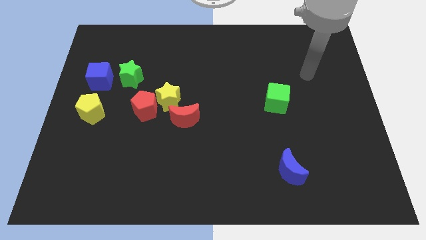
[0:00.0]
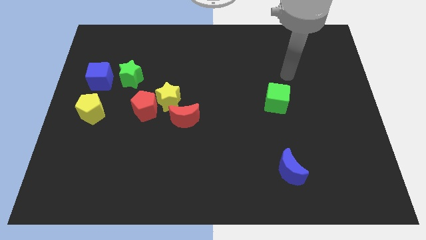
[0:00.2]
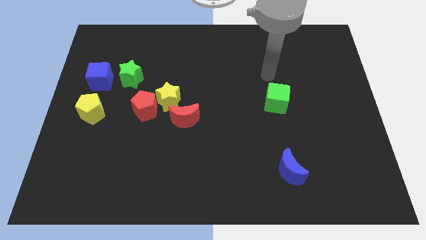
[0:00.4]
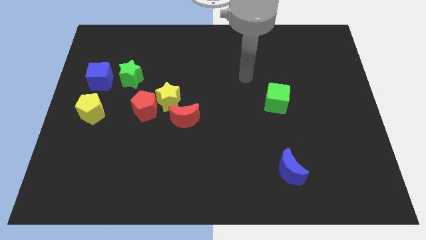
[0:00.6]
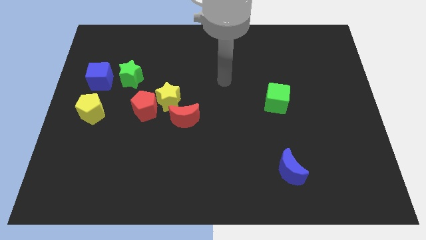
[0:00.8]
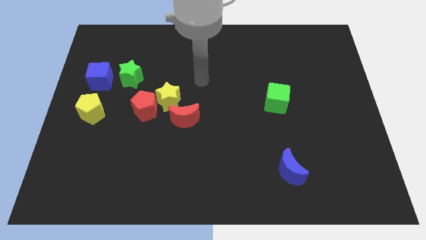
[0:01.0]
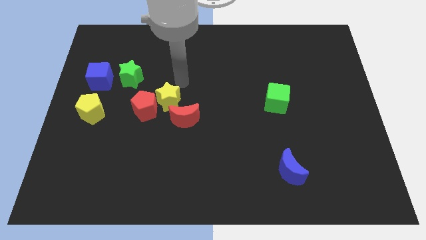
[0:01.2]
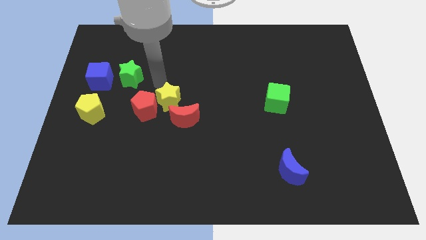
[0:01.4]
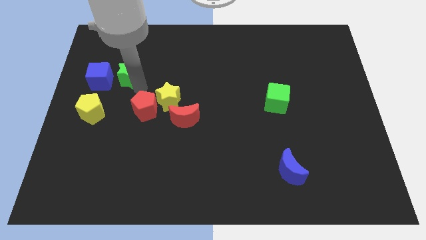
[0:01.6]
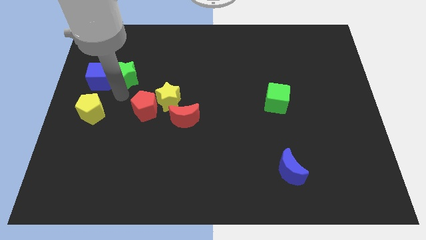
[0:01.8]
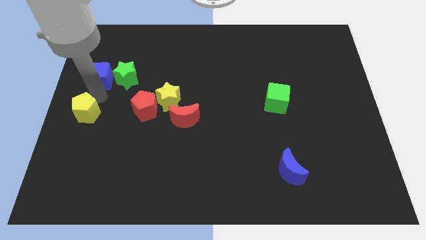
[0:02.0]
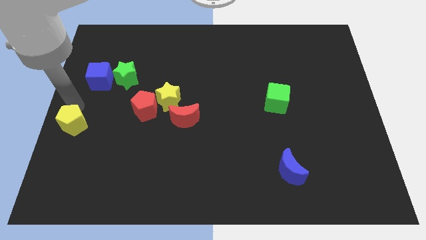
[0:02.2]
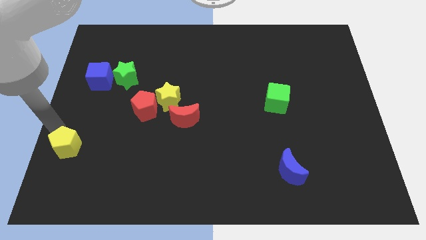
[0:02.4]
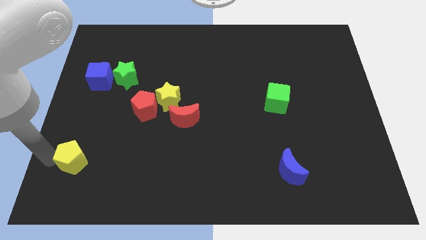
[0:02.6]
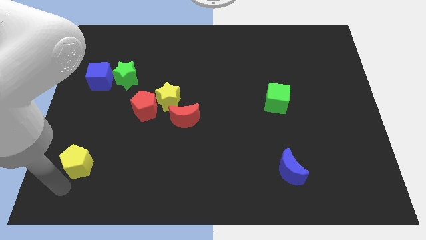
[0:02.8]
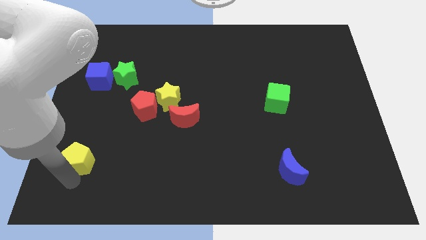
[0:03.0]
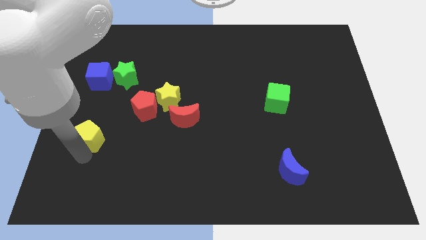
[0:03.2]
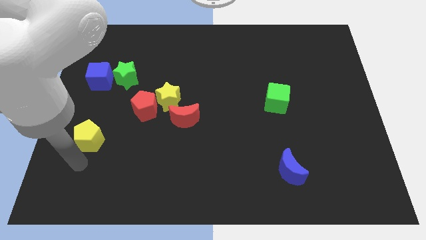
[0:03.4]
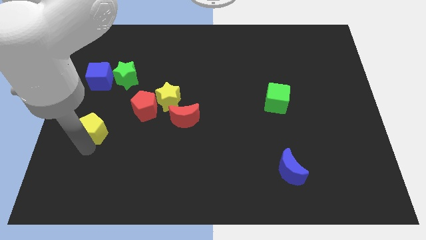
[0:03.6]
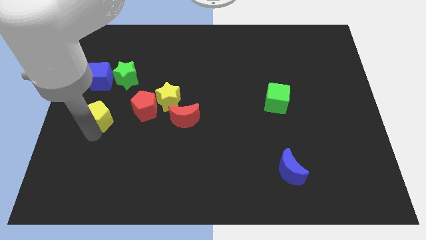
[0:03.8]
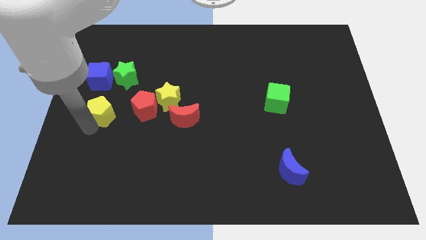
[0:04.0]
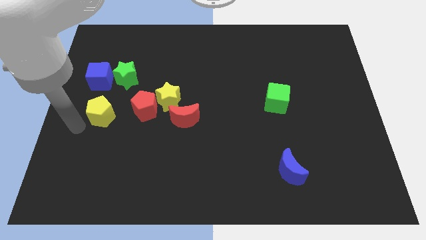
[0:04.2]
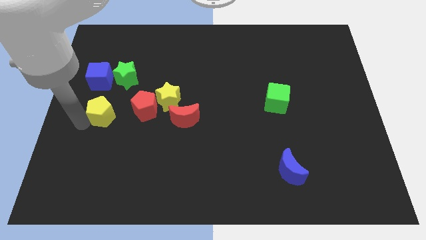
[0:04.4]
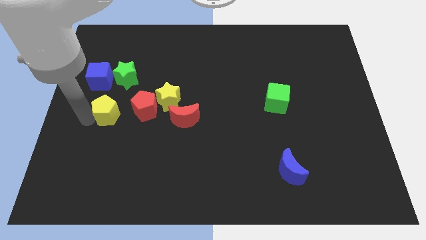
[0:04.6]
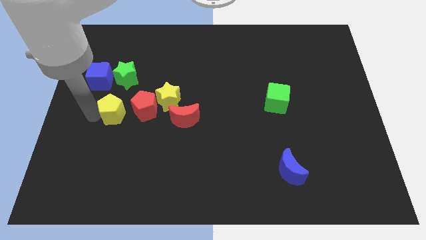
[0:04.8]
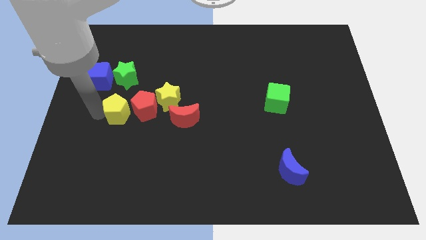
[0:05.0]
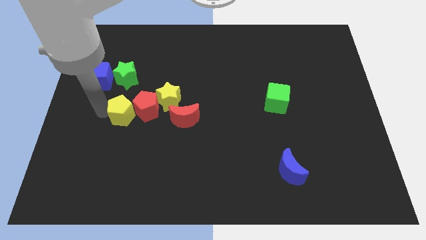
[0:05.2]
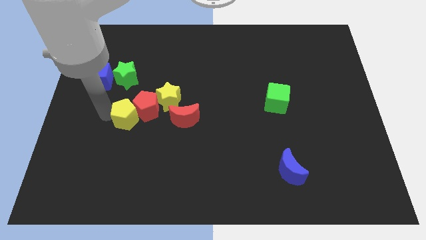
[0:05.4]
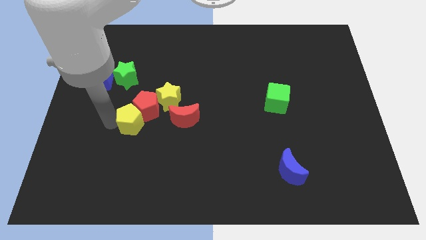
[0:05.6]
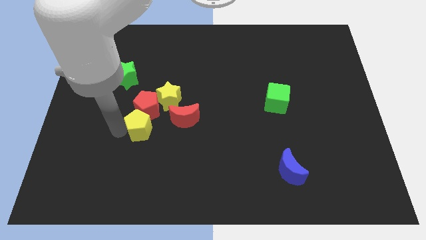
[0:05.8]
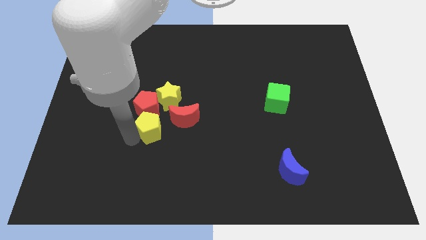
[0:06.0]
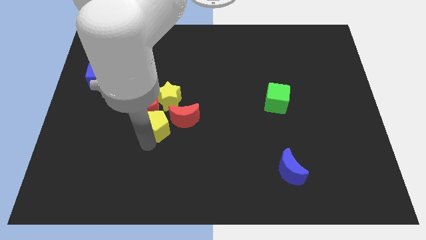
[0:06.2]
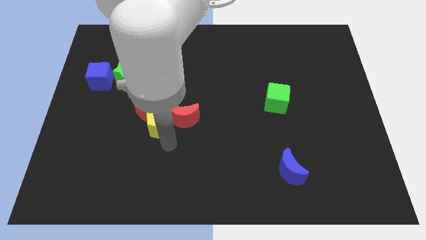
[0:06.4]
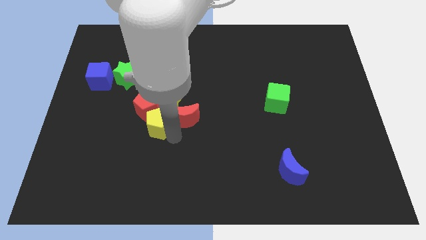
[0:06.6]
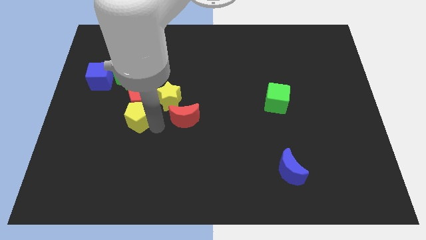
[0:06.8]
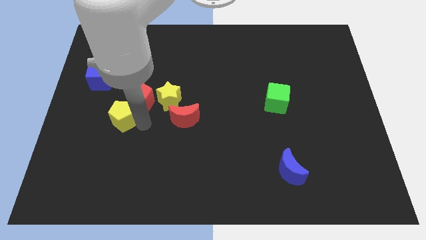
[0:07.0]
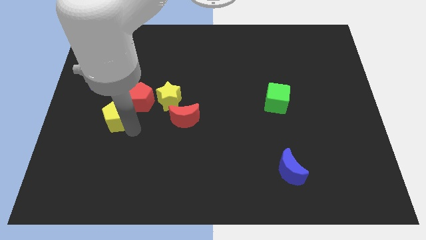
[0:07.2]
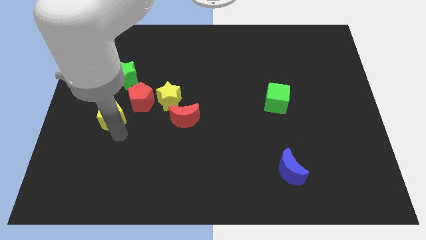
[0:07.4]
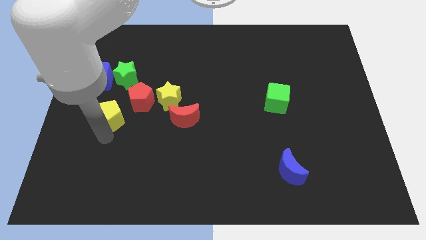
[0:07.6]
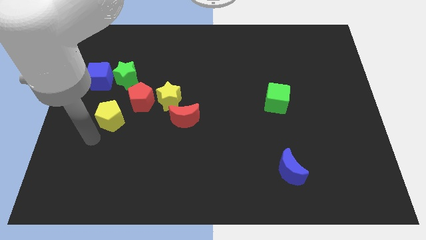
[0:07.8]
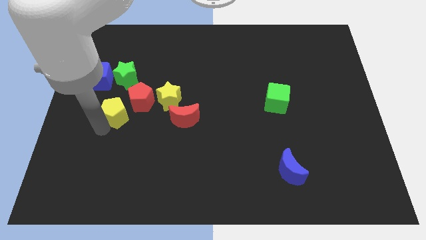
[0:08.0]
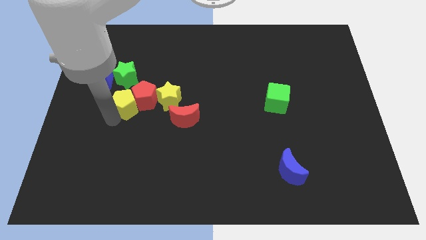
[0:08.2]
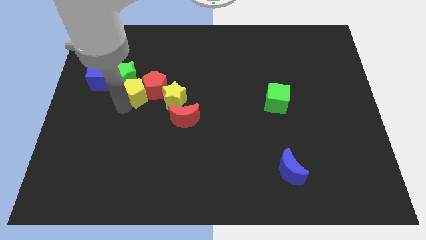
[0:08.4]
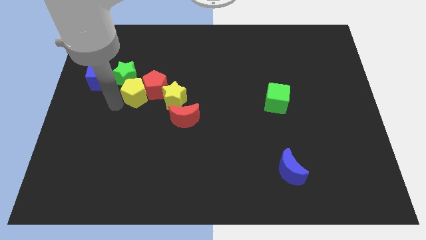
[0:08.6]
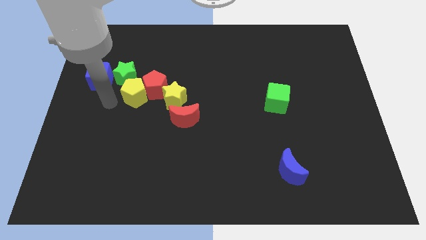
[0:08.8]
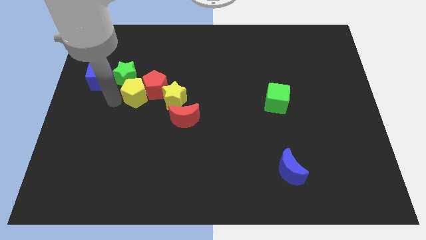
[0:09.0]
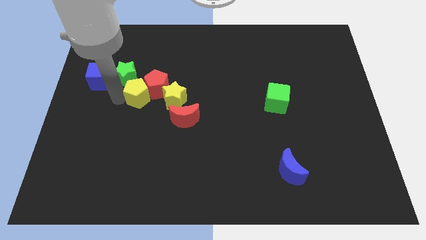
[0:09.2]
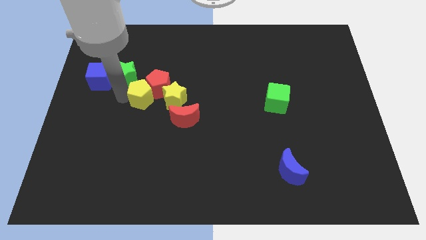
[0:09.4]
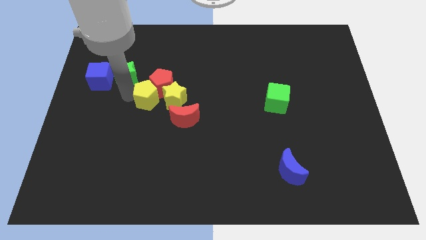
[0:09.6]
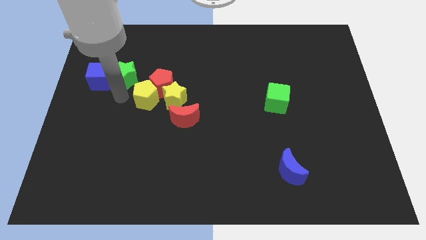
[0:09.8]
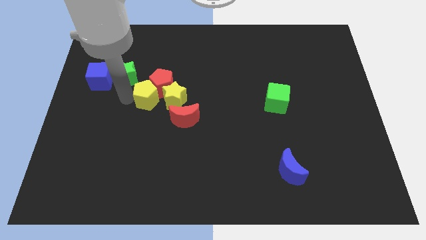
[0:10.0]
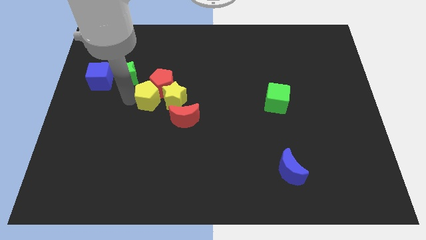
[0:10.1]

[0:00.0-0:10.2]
slide the yellow pentagon close to the yellow star

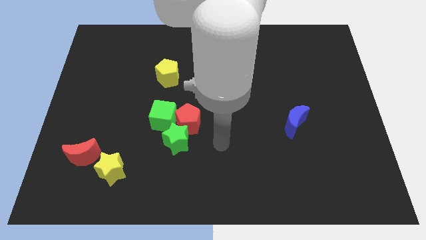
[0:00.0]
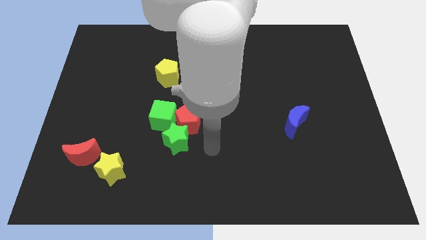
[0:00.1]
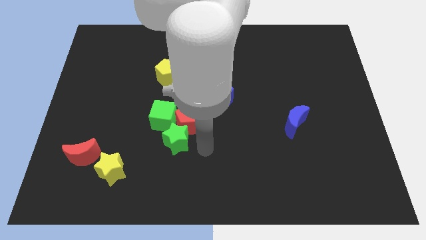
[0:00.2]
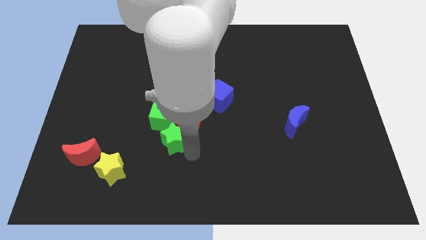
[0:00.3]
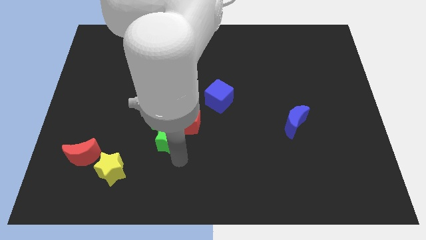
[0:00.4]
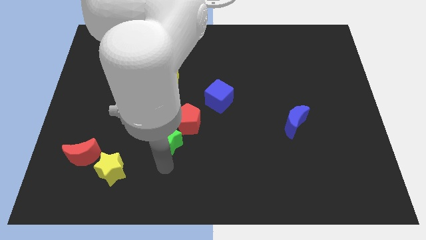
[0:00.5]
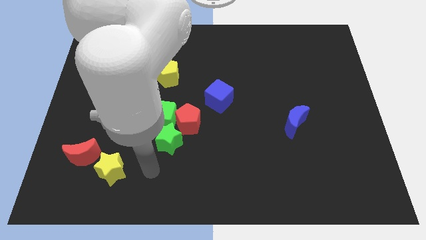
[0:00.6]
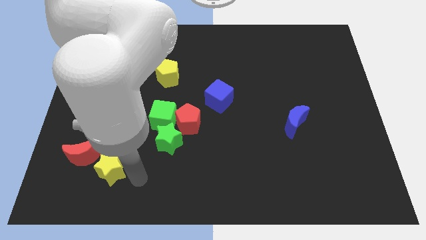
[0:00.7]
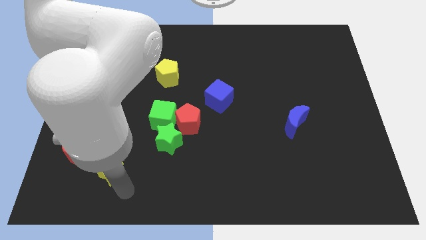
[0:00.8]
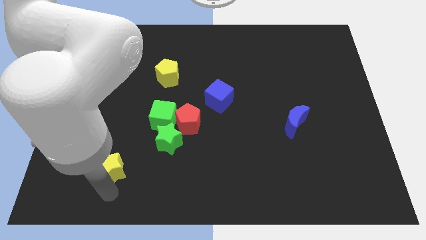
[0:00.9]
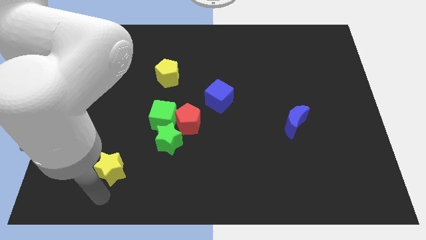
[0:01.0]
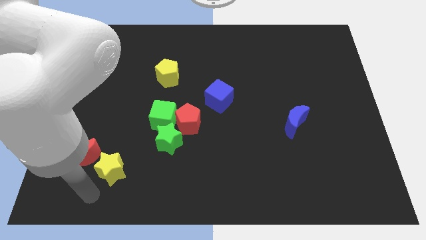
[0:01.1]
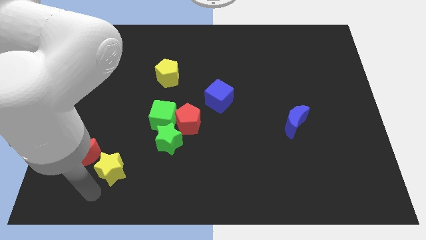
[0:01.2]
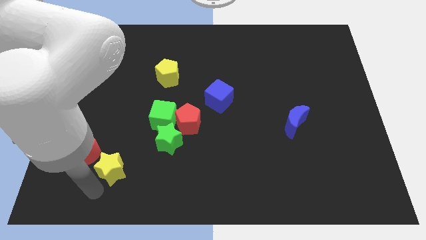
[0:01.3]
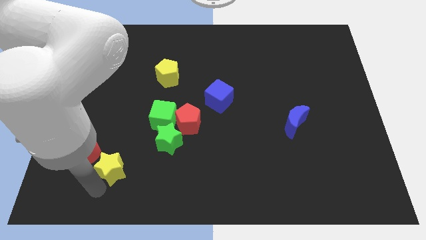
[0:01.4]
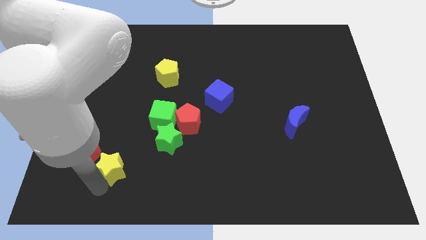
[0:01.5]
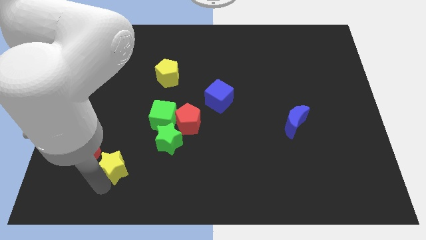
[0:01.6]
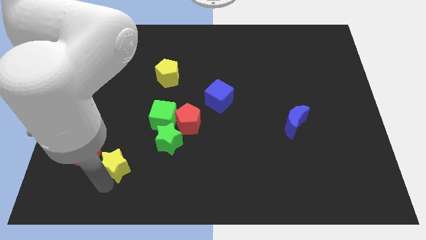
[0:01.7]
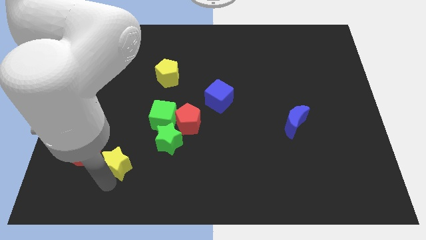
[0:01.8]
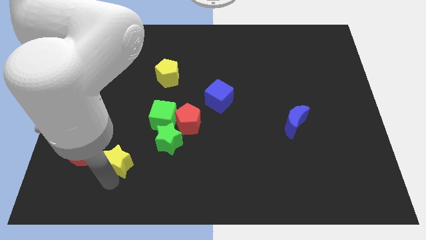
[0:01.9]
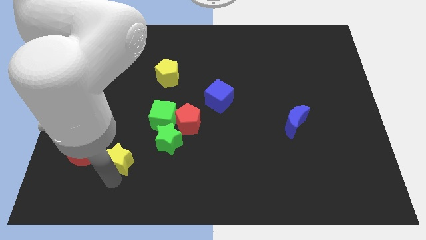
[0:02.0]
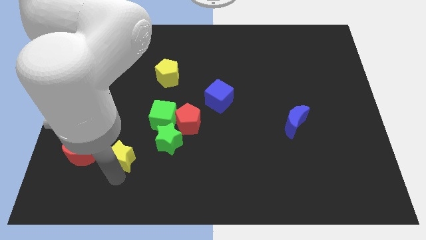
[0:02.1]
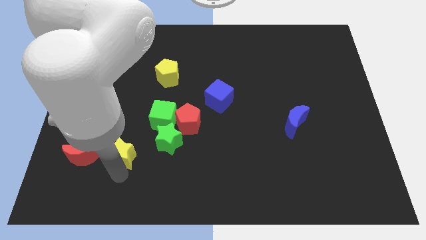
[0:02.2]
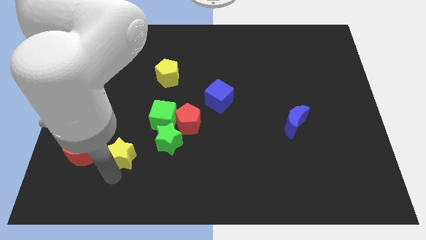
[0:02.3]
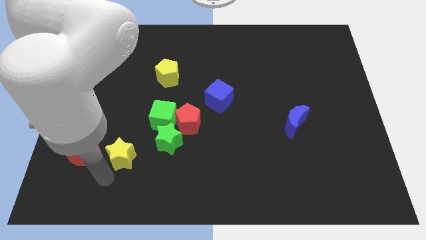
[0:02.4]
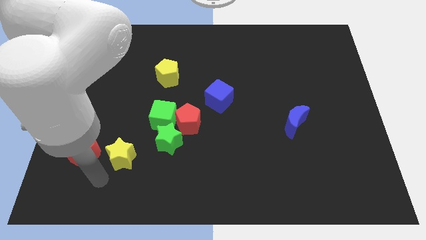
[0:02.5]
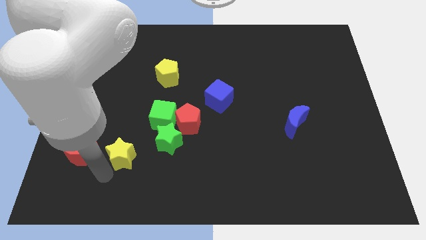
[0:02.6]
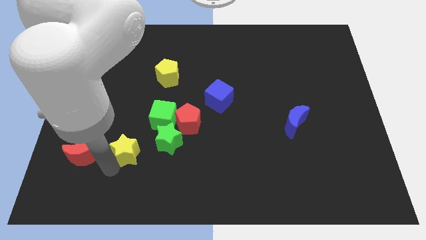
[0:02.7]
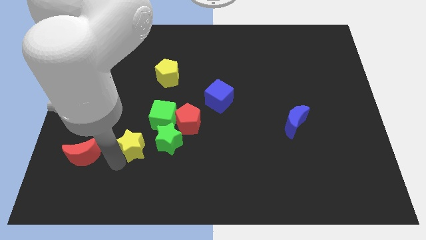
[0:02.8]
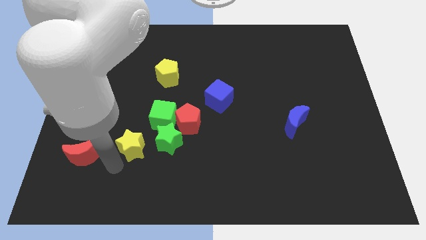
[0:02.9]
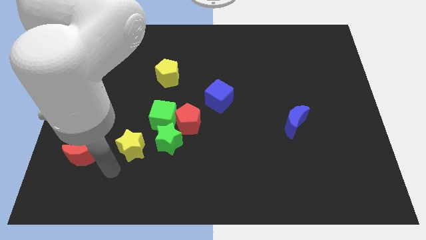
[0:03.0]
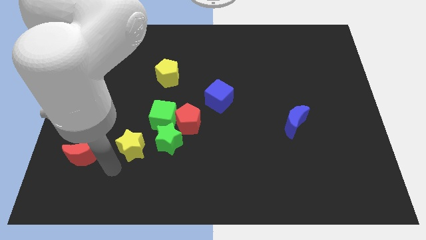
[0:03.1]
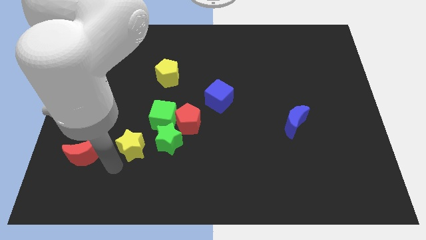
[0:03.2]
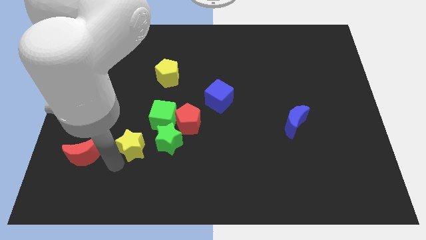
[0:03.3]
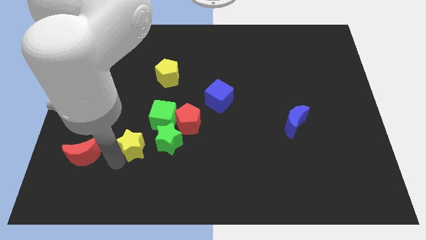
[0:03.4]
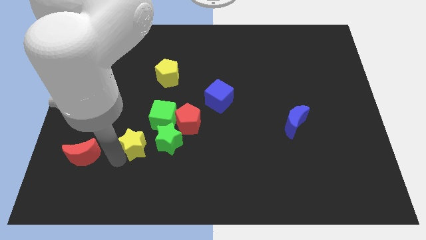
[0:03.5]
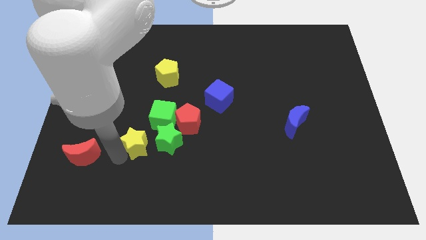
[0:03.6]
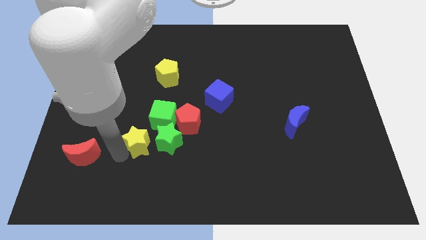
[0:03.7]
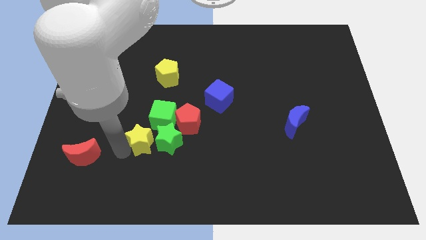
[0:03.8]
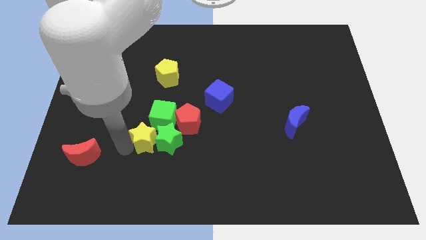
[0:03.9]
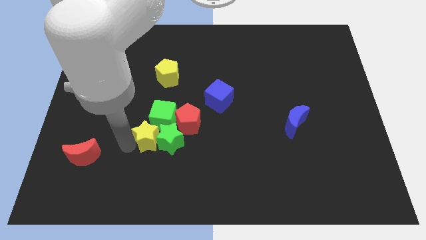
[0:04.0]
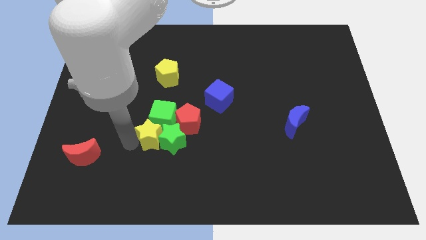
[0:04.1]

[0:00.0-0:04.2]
push the yellow star close to the green cube
